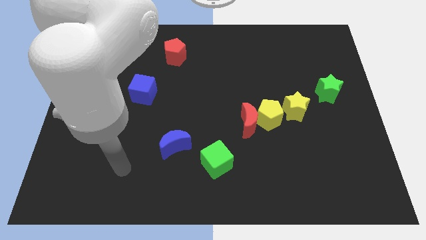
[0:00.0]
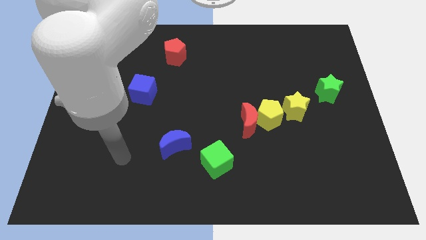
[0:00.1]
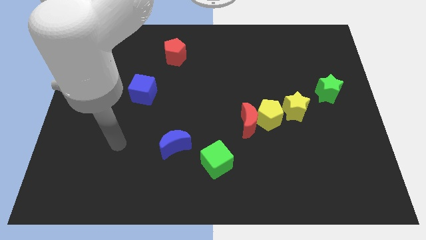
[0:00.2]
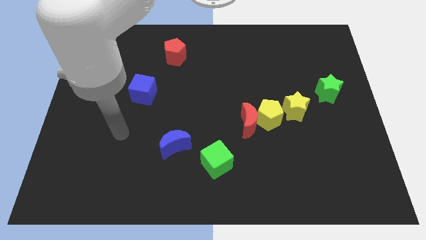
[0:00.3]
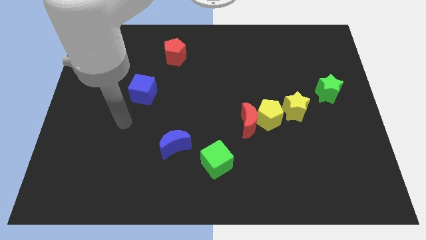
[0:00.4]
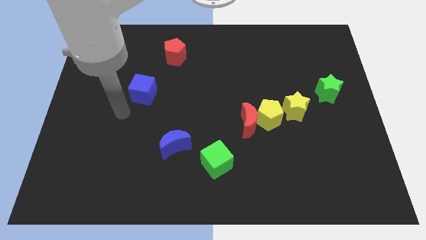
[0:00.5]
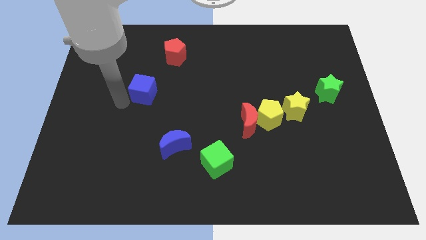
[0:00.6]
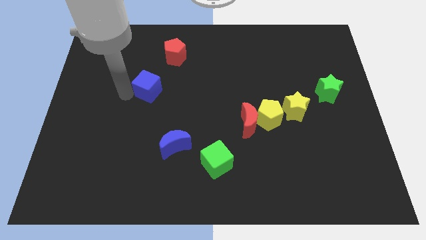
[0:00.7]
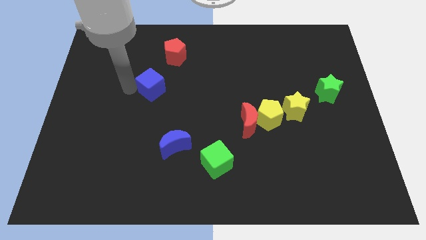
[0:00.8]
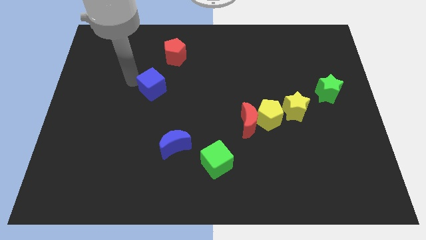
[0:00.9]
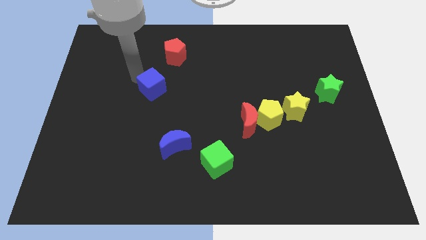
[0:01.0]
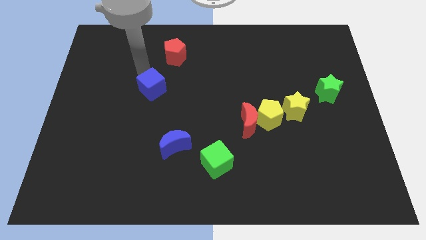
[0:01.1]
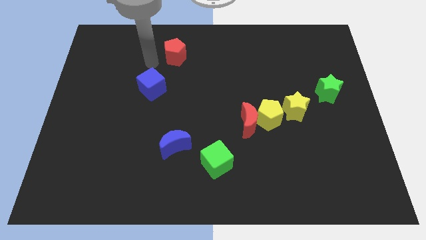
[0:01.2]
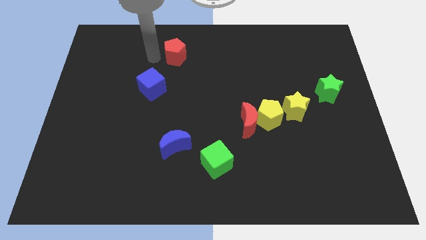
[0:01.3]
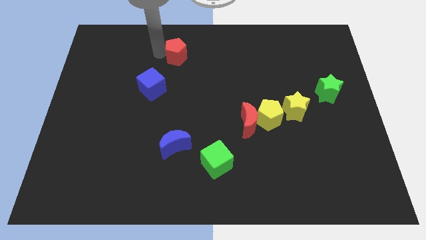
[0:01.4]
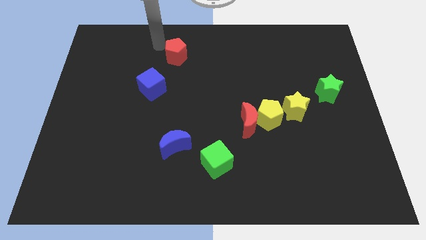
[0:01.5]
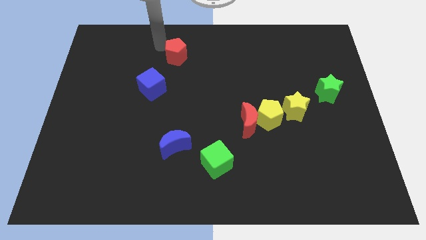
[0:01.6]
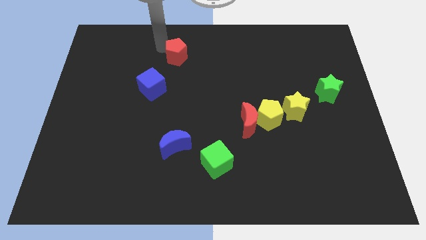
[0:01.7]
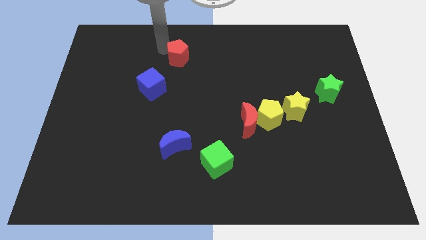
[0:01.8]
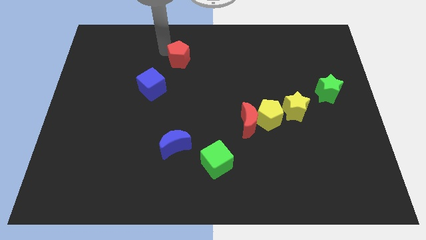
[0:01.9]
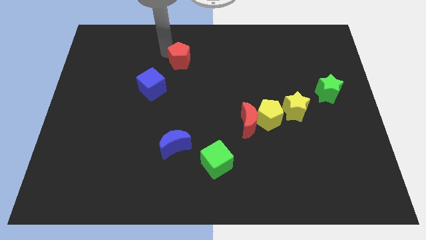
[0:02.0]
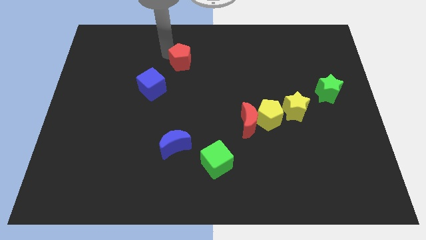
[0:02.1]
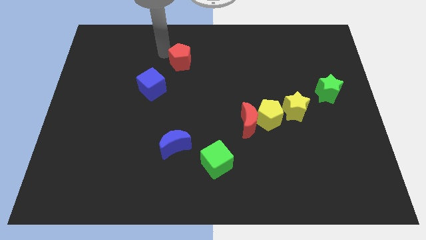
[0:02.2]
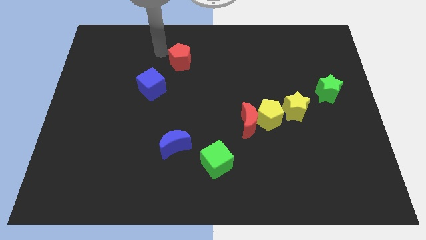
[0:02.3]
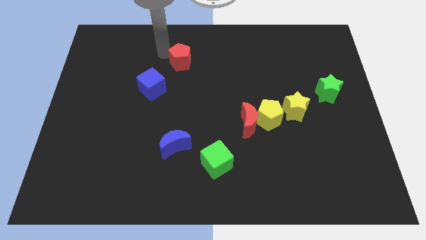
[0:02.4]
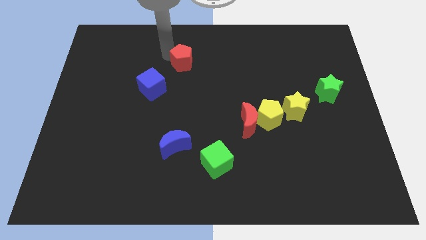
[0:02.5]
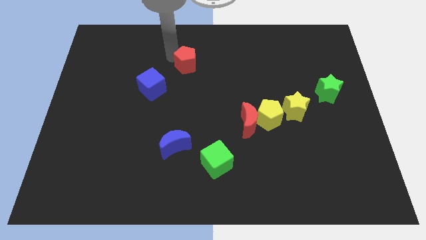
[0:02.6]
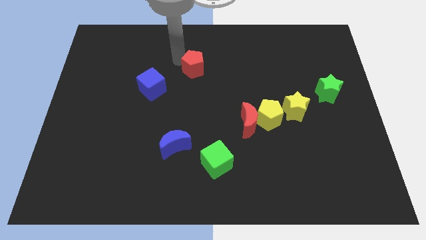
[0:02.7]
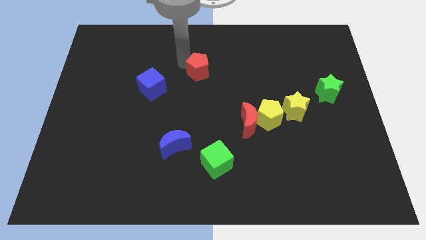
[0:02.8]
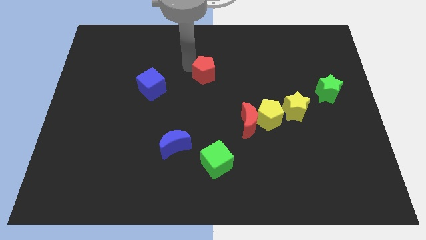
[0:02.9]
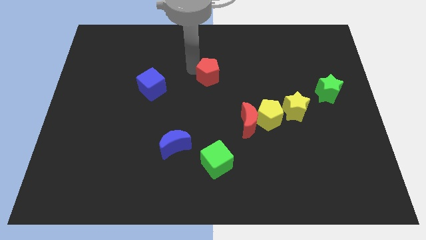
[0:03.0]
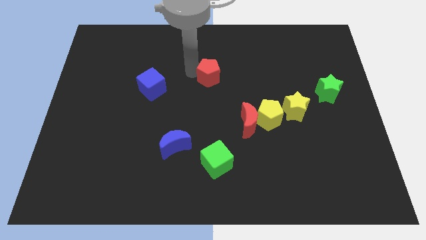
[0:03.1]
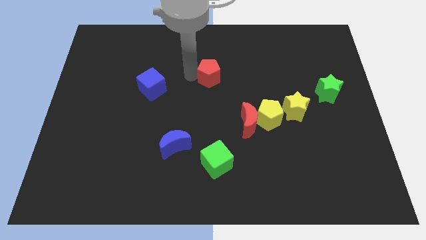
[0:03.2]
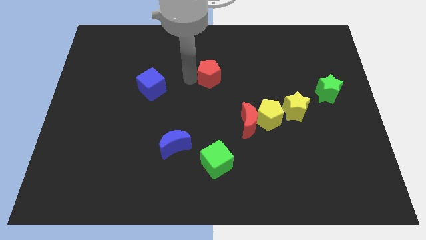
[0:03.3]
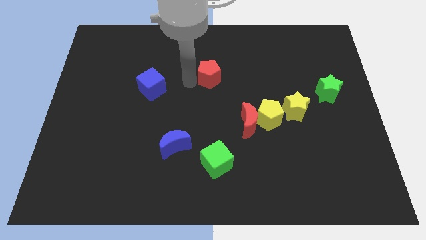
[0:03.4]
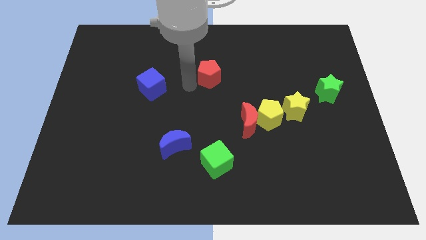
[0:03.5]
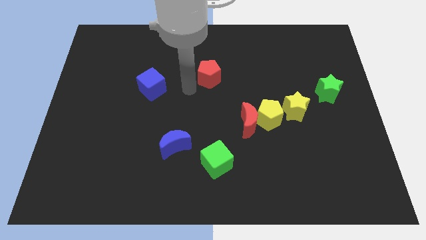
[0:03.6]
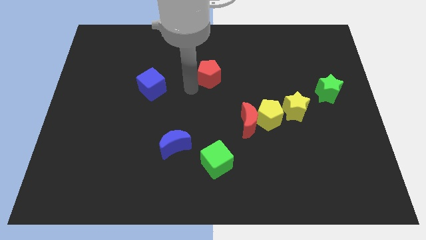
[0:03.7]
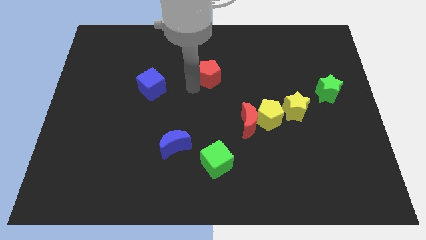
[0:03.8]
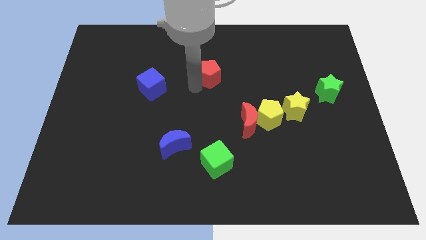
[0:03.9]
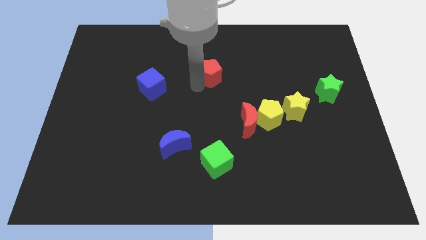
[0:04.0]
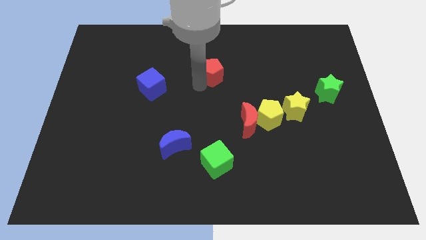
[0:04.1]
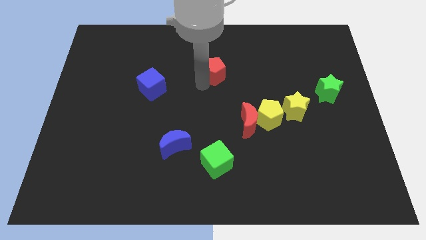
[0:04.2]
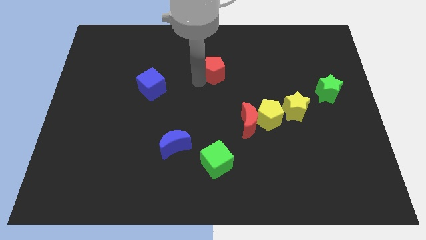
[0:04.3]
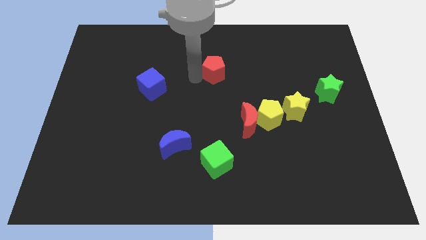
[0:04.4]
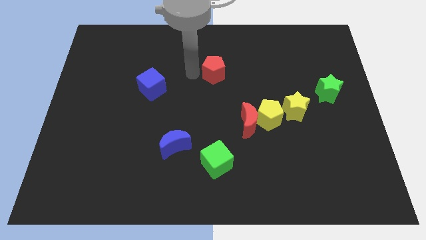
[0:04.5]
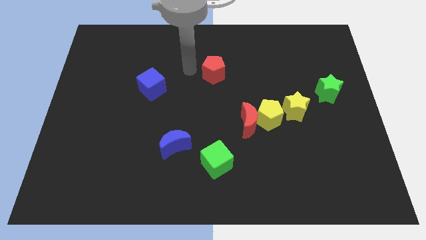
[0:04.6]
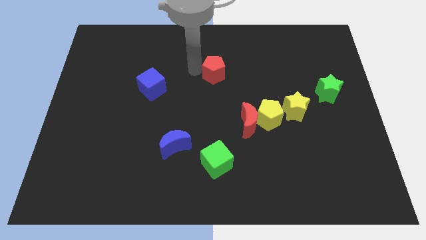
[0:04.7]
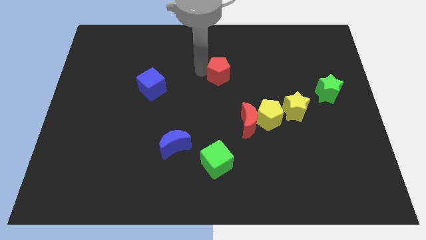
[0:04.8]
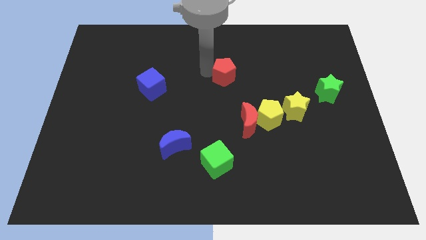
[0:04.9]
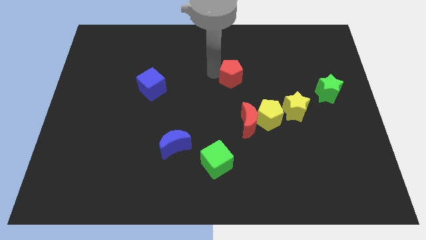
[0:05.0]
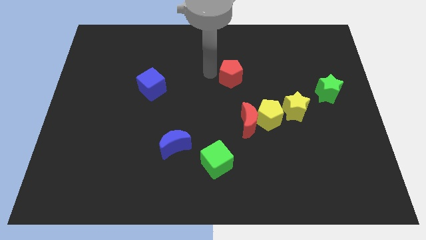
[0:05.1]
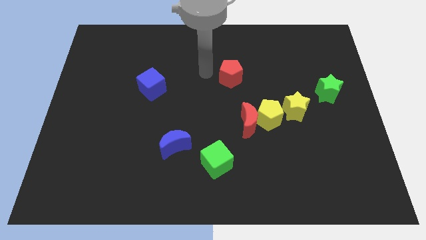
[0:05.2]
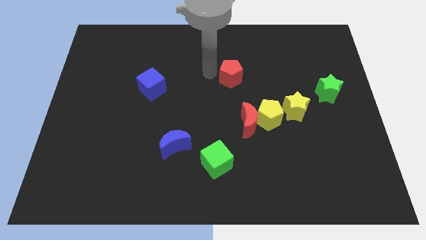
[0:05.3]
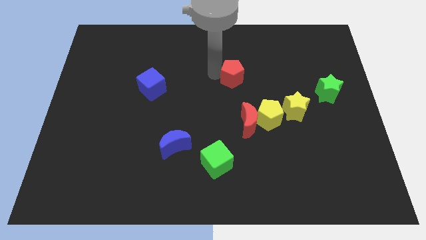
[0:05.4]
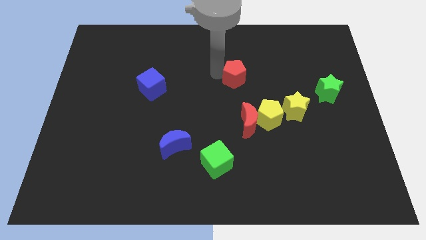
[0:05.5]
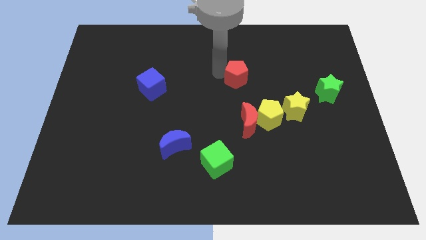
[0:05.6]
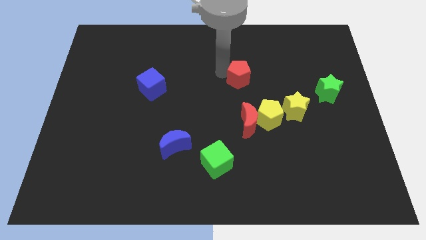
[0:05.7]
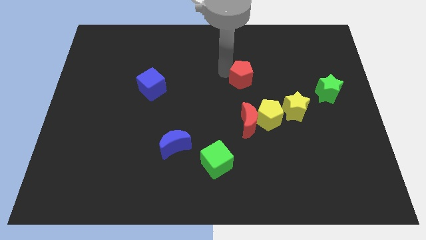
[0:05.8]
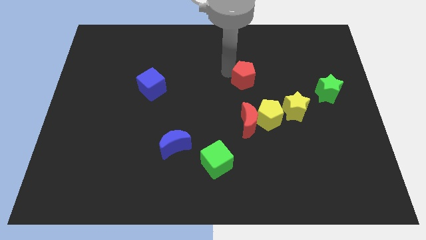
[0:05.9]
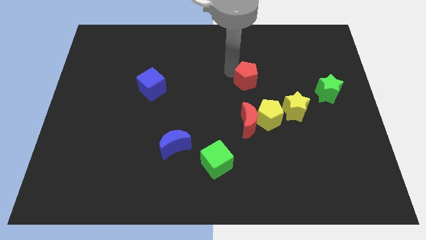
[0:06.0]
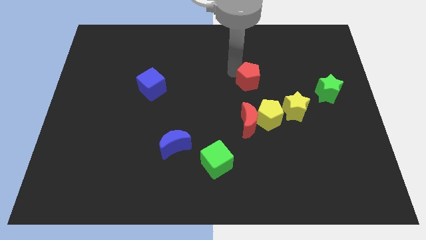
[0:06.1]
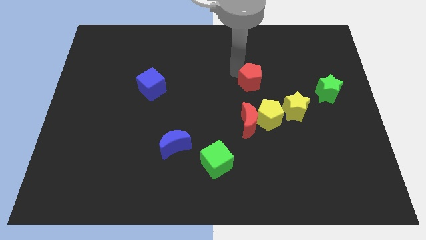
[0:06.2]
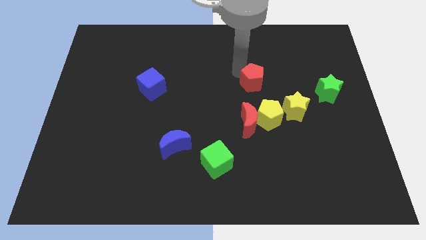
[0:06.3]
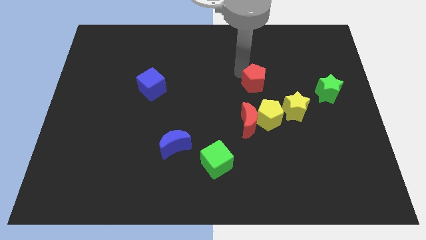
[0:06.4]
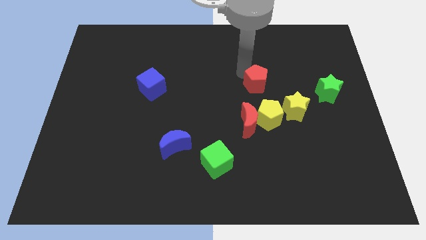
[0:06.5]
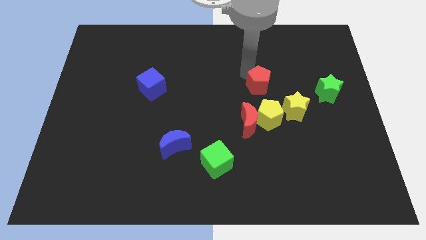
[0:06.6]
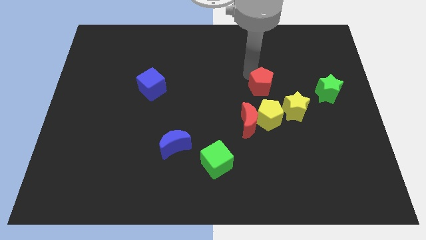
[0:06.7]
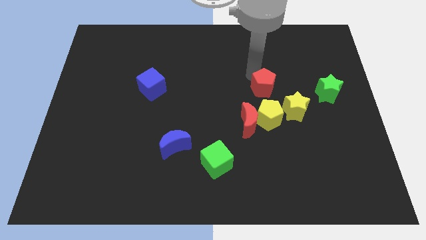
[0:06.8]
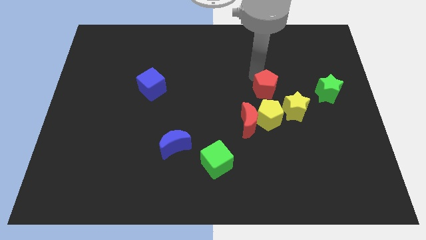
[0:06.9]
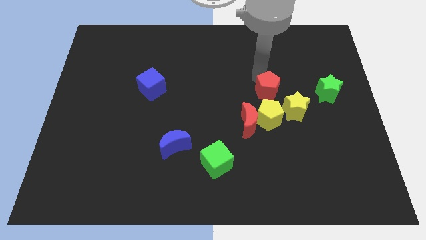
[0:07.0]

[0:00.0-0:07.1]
push the red pentagon diagonally up and to the right of the red moon

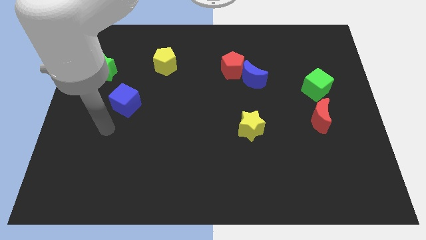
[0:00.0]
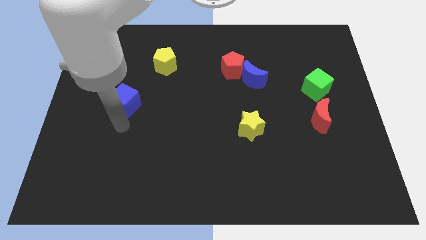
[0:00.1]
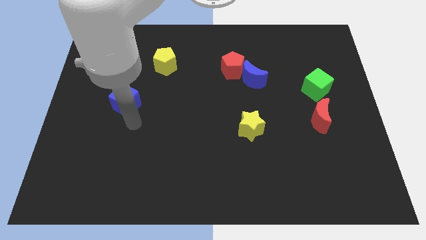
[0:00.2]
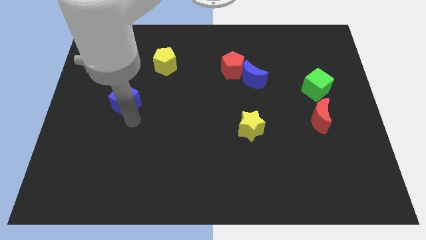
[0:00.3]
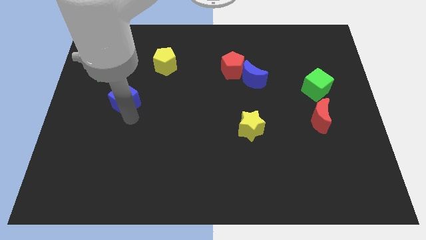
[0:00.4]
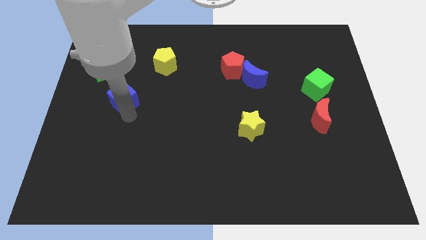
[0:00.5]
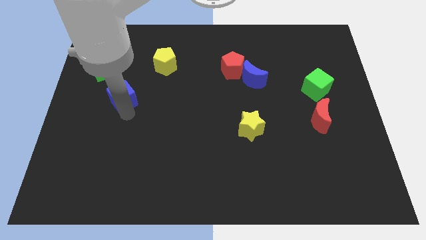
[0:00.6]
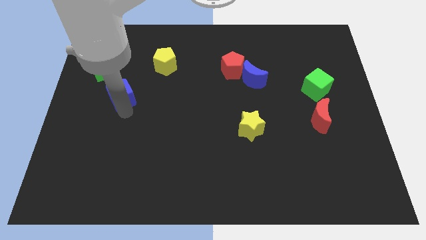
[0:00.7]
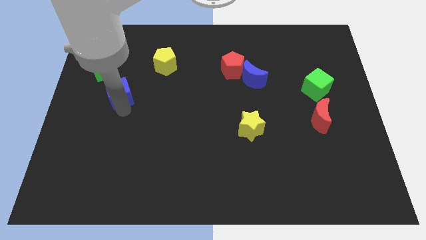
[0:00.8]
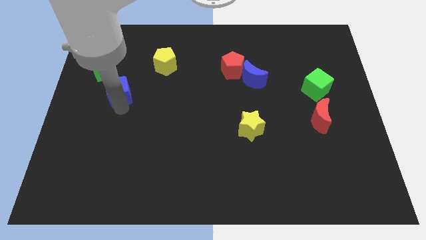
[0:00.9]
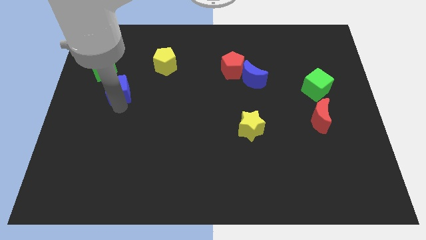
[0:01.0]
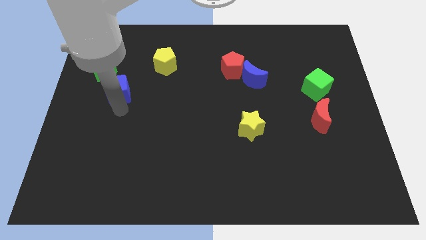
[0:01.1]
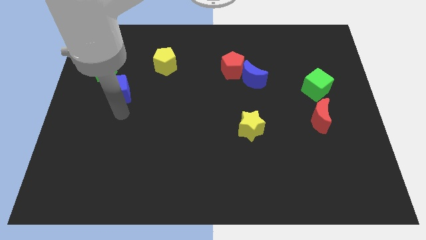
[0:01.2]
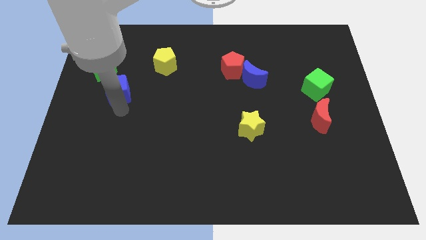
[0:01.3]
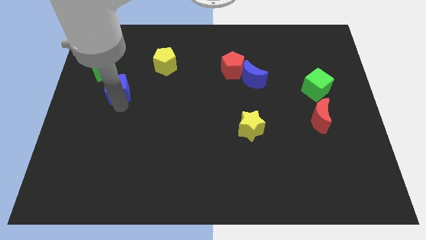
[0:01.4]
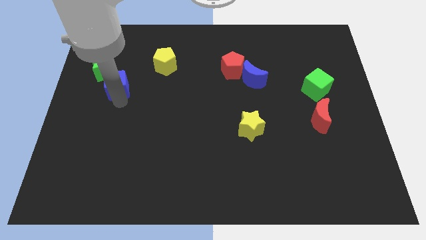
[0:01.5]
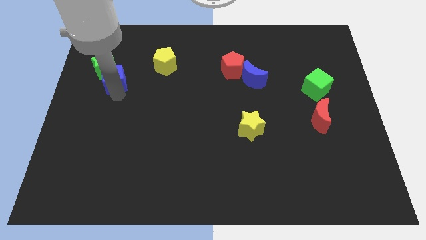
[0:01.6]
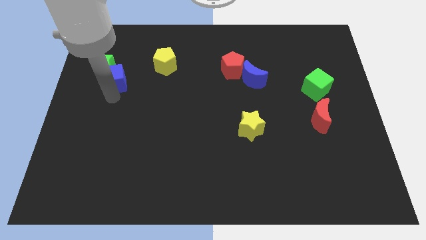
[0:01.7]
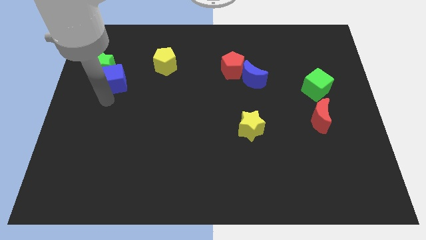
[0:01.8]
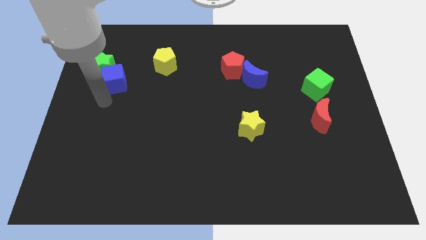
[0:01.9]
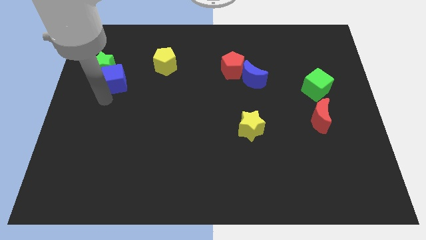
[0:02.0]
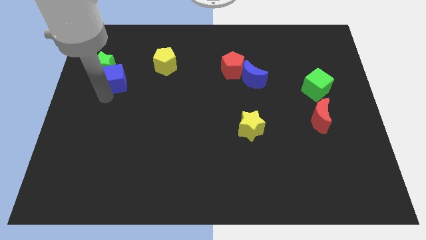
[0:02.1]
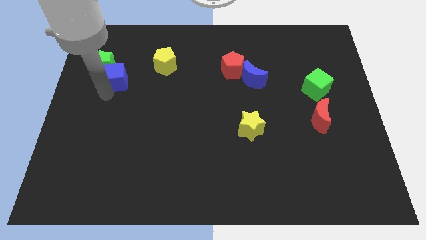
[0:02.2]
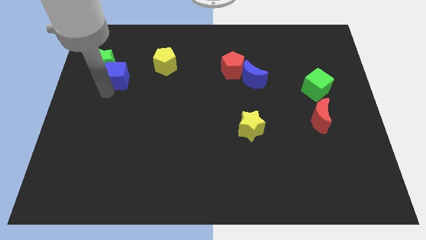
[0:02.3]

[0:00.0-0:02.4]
slide the blue cube left of the yellow pentagon
